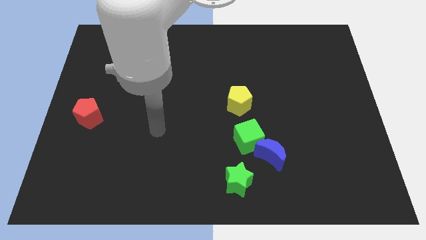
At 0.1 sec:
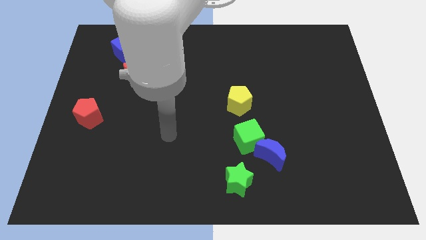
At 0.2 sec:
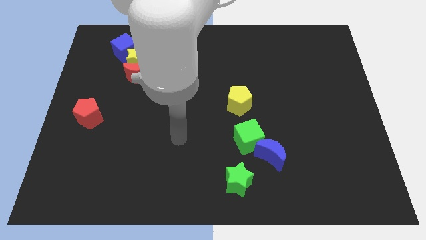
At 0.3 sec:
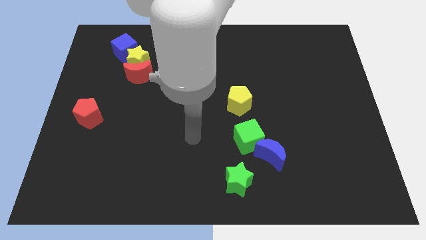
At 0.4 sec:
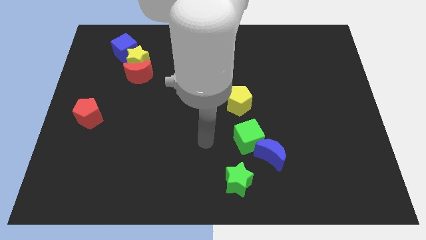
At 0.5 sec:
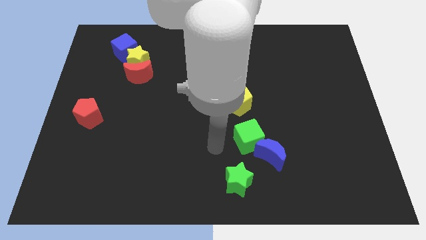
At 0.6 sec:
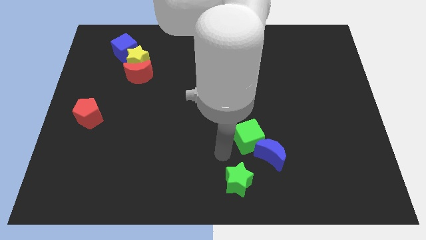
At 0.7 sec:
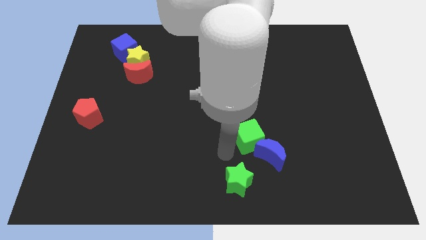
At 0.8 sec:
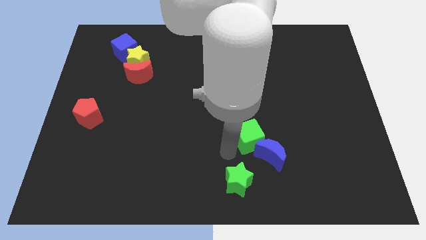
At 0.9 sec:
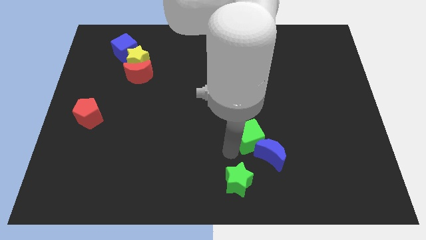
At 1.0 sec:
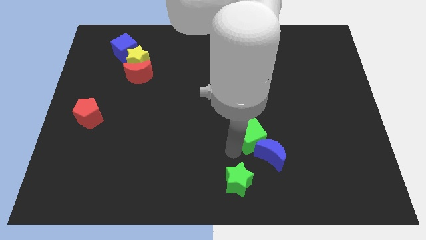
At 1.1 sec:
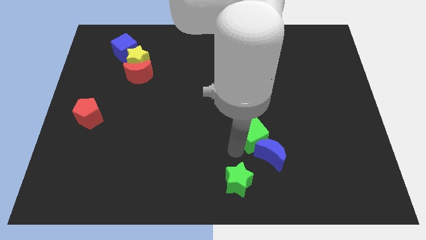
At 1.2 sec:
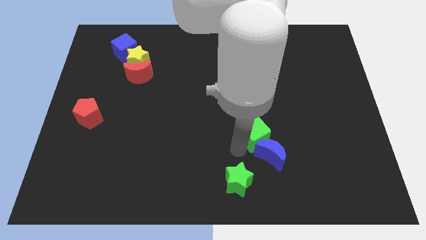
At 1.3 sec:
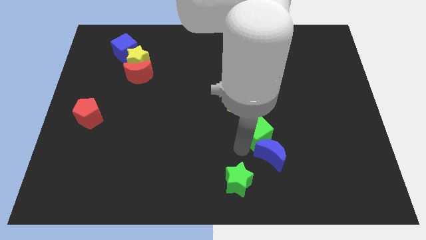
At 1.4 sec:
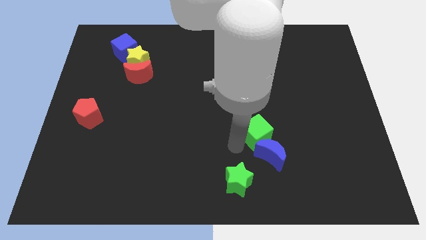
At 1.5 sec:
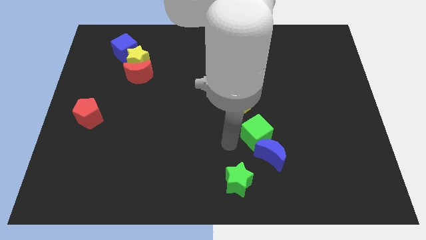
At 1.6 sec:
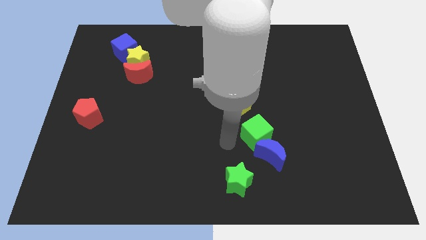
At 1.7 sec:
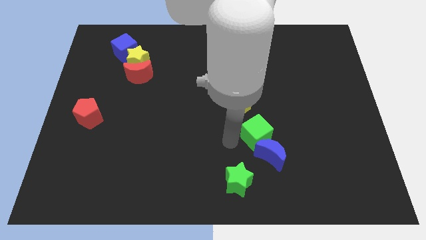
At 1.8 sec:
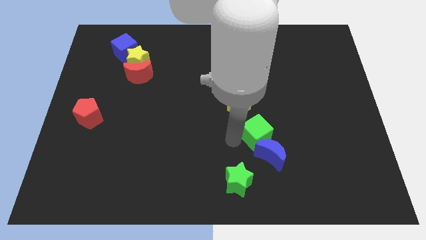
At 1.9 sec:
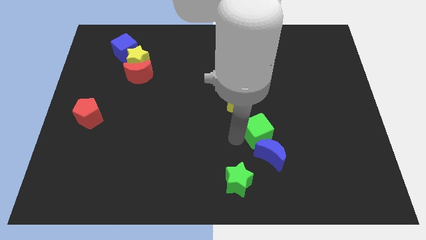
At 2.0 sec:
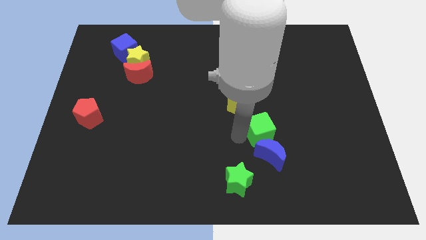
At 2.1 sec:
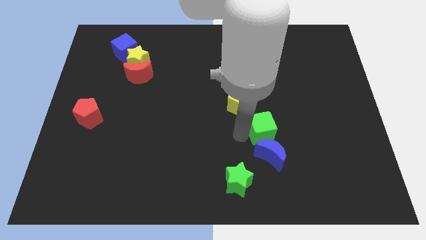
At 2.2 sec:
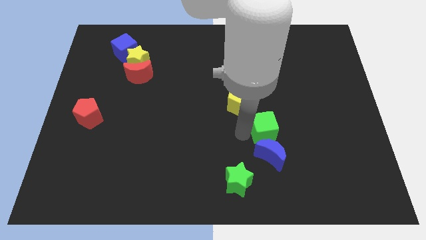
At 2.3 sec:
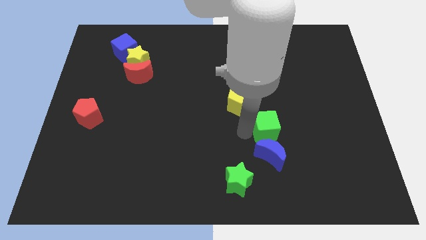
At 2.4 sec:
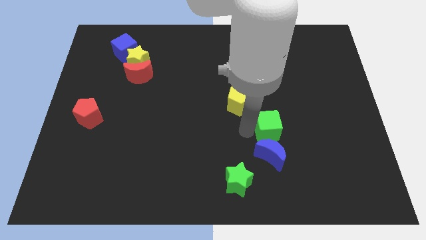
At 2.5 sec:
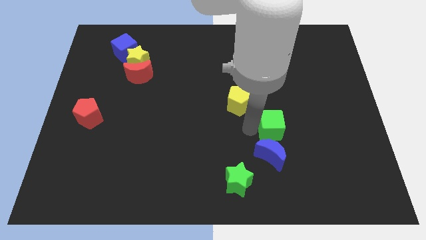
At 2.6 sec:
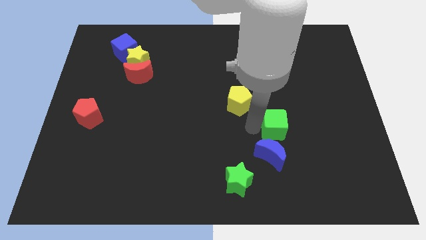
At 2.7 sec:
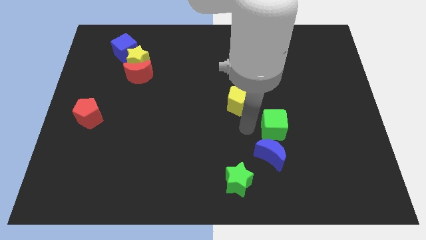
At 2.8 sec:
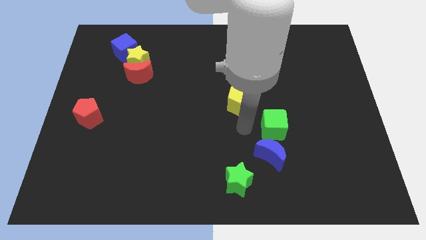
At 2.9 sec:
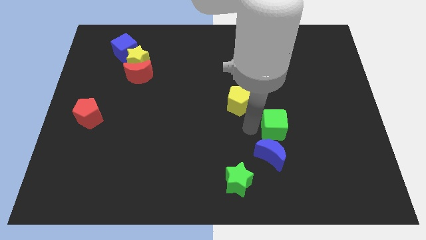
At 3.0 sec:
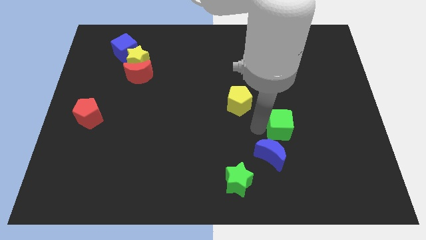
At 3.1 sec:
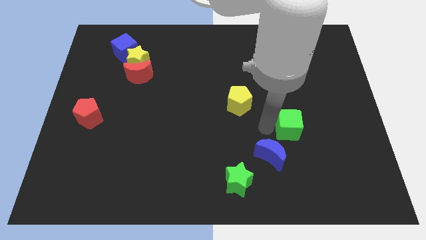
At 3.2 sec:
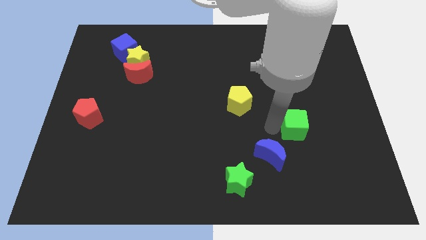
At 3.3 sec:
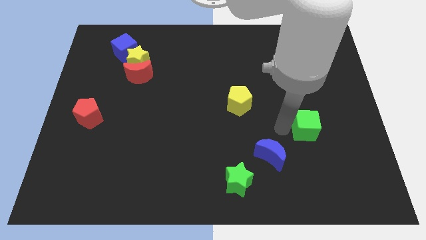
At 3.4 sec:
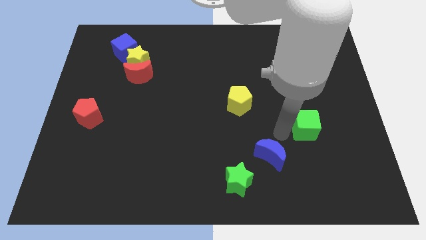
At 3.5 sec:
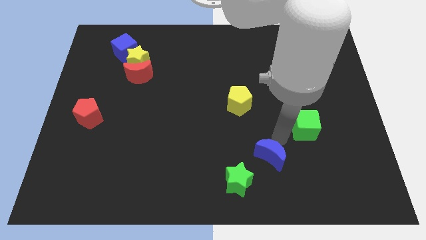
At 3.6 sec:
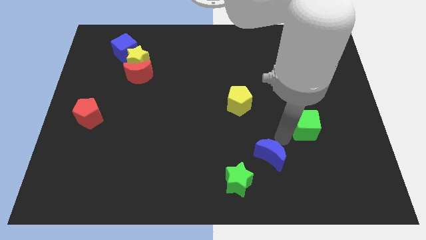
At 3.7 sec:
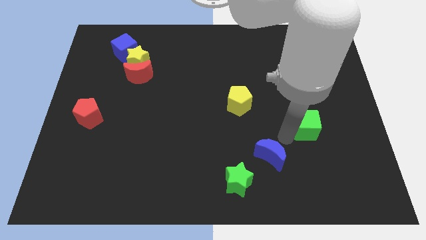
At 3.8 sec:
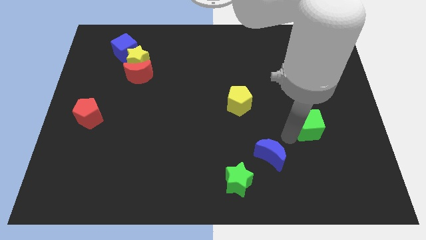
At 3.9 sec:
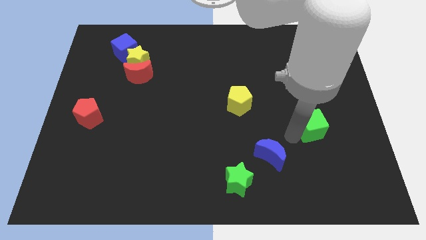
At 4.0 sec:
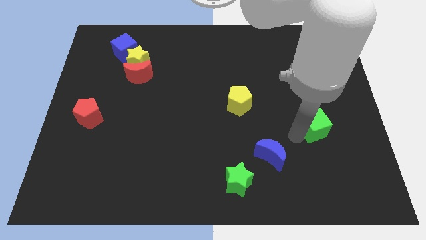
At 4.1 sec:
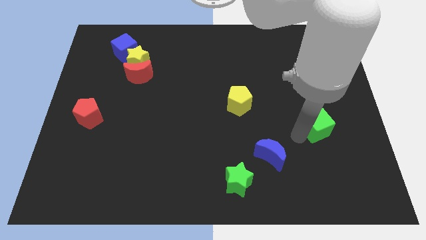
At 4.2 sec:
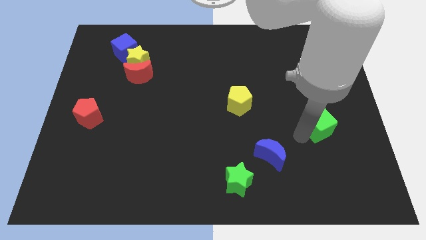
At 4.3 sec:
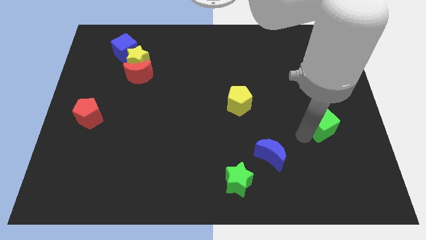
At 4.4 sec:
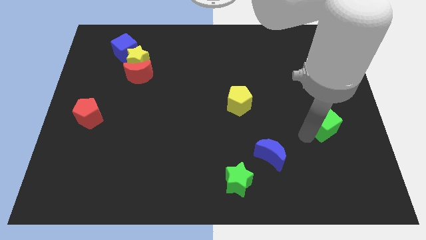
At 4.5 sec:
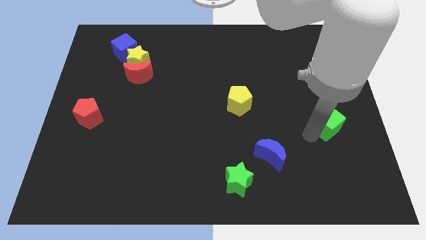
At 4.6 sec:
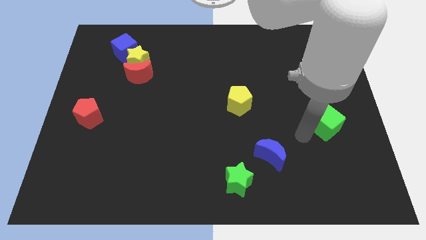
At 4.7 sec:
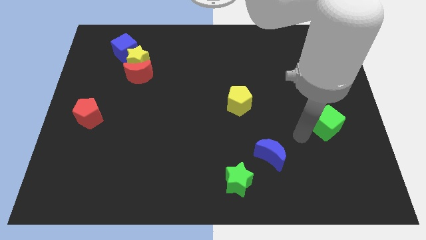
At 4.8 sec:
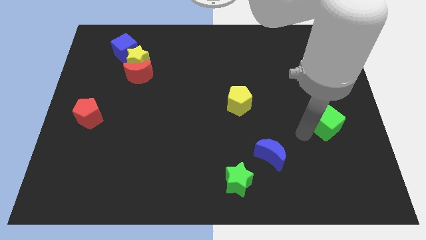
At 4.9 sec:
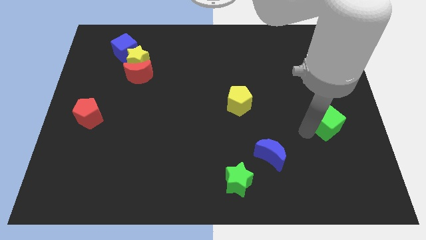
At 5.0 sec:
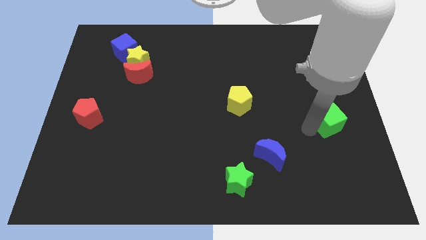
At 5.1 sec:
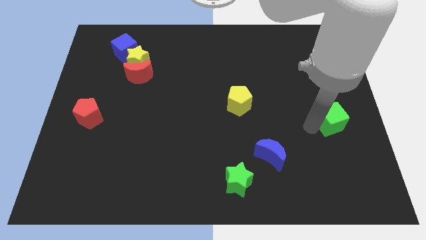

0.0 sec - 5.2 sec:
put the green cube to the right side

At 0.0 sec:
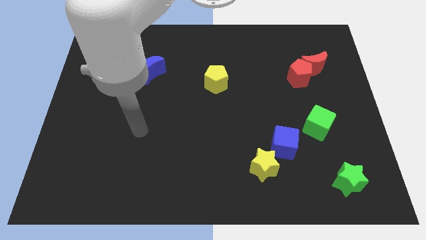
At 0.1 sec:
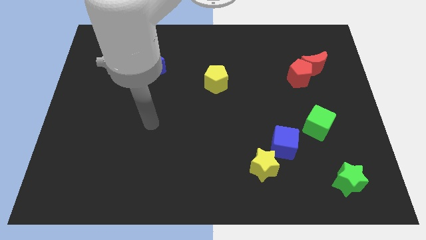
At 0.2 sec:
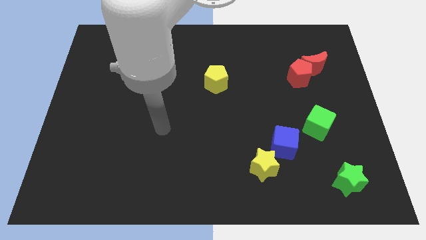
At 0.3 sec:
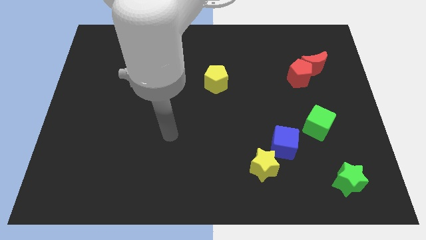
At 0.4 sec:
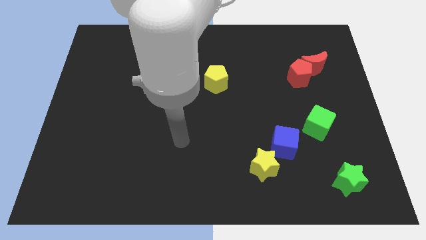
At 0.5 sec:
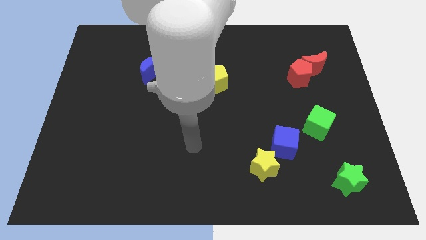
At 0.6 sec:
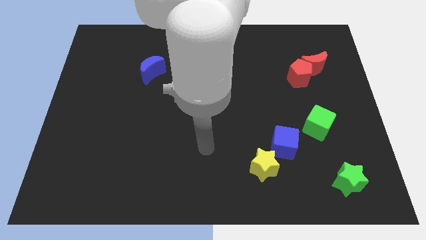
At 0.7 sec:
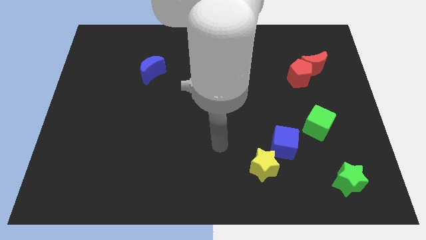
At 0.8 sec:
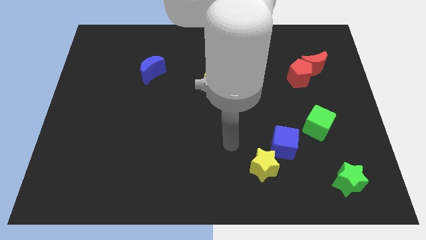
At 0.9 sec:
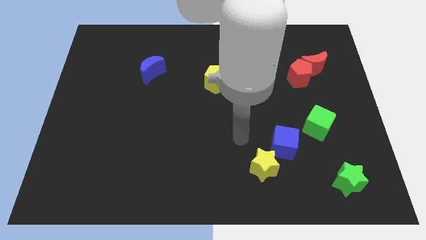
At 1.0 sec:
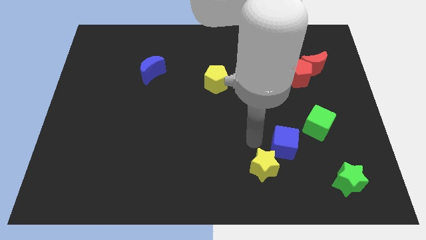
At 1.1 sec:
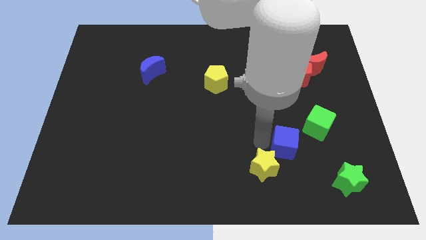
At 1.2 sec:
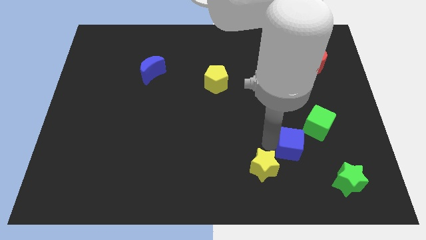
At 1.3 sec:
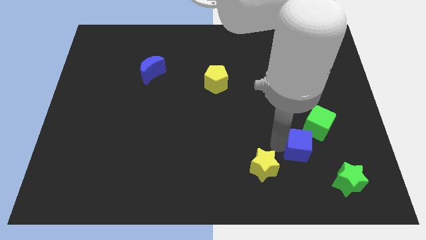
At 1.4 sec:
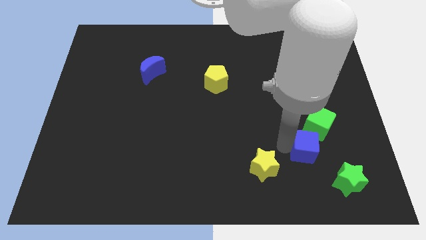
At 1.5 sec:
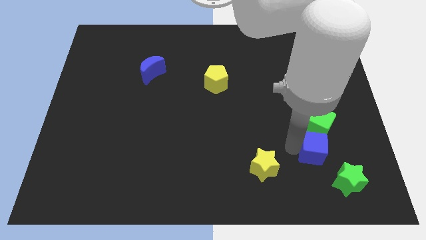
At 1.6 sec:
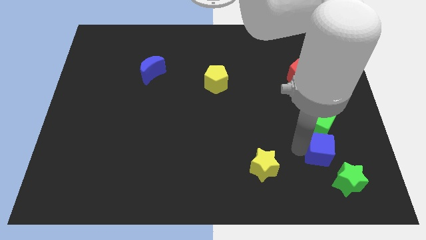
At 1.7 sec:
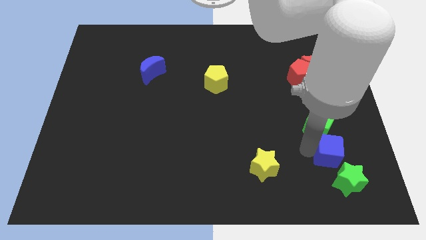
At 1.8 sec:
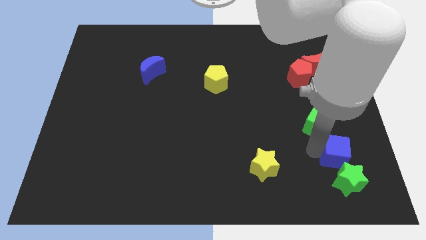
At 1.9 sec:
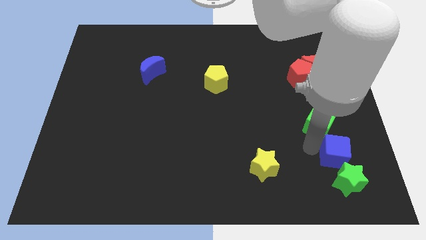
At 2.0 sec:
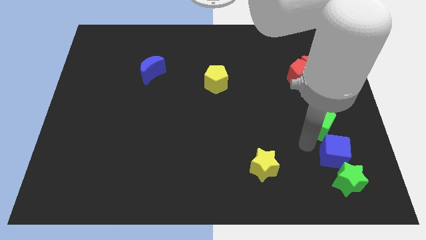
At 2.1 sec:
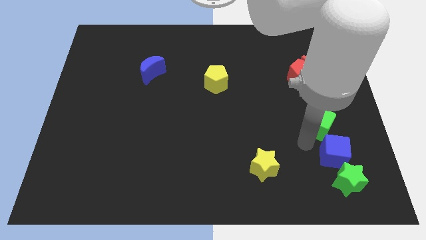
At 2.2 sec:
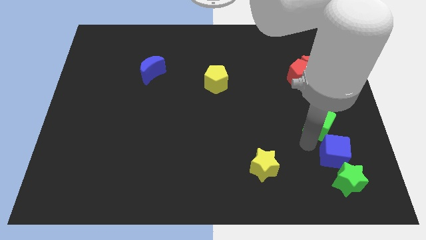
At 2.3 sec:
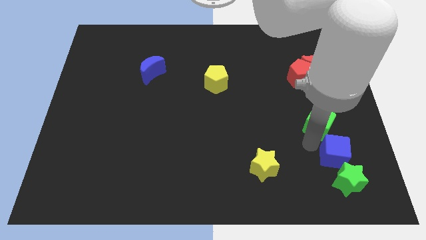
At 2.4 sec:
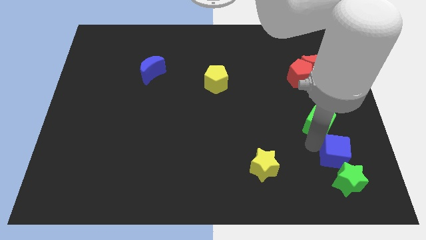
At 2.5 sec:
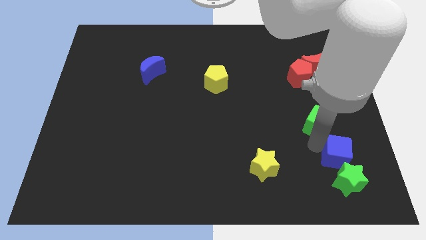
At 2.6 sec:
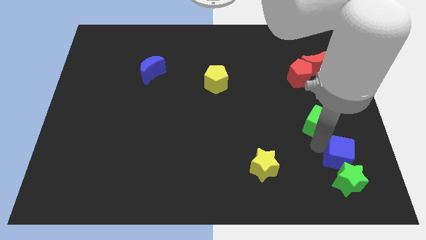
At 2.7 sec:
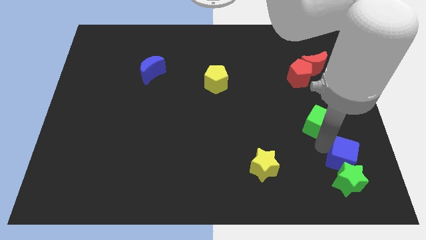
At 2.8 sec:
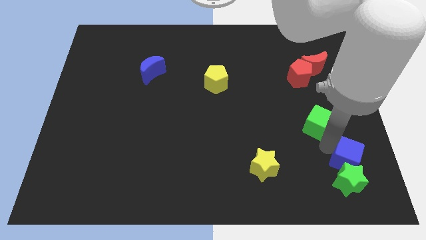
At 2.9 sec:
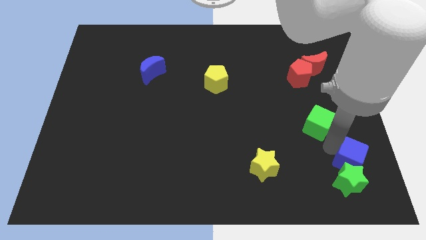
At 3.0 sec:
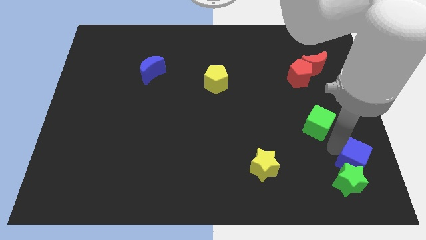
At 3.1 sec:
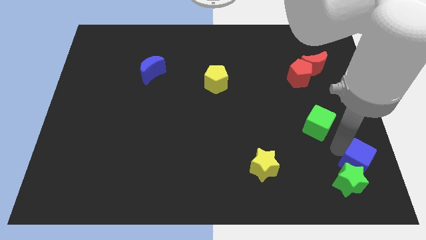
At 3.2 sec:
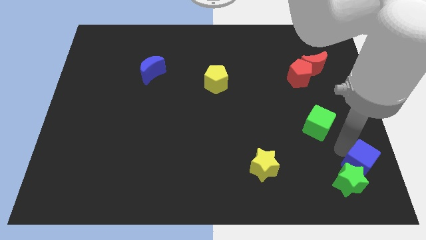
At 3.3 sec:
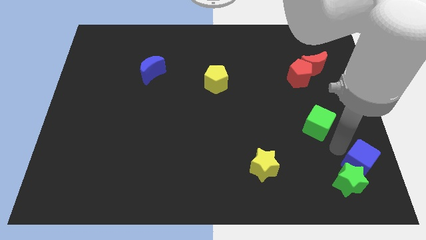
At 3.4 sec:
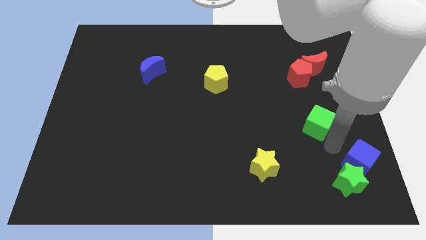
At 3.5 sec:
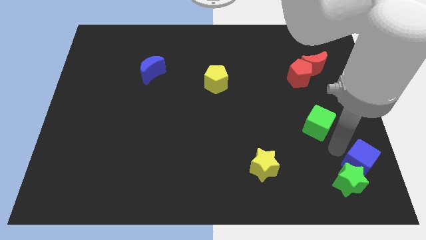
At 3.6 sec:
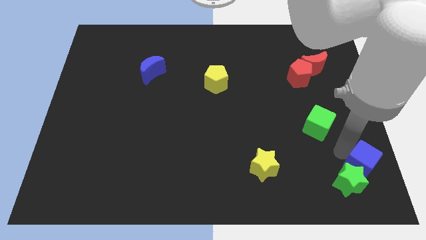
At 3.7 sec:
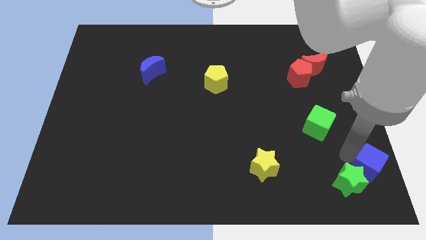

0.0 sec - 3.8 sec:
slide the blue cube to the bottom right of the board
